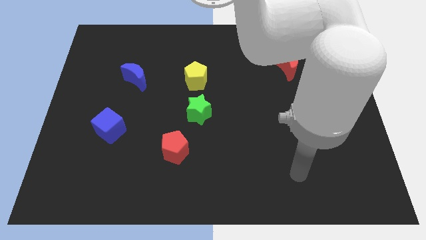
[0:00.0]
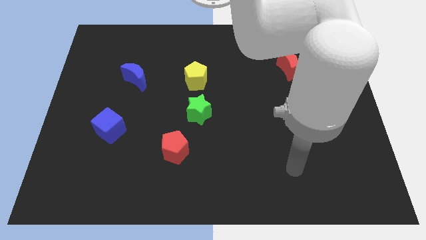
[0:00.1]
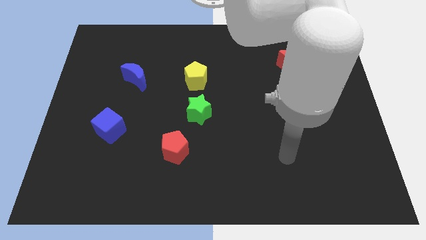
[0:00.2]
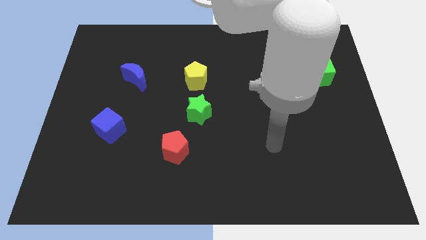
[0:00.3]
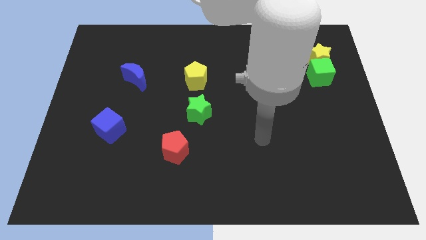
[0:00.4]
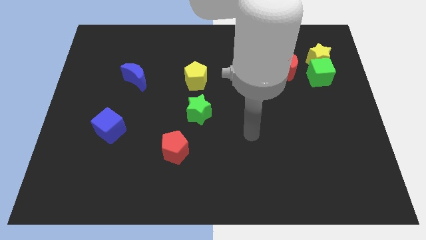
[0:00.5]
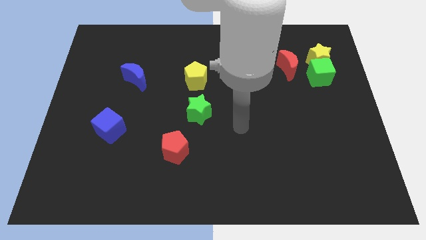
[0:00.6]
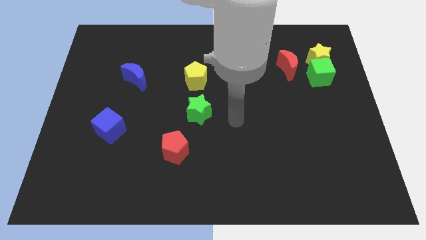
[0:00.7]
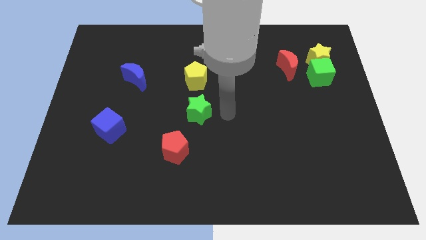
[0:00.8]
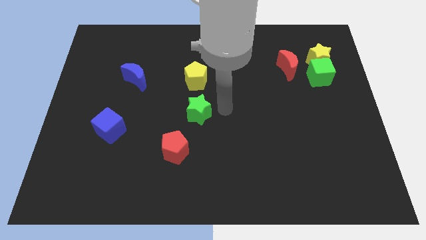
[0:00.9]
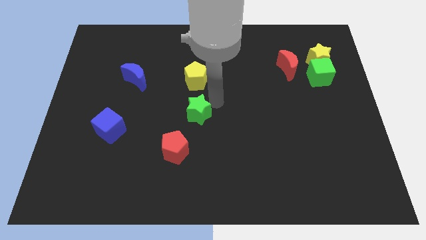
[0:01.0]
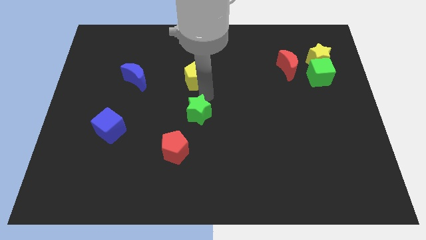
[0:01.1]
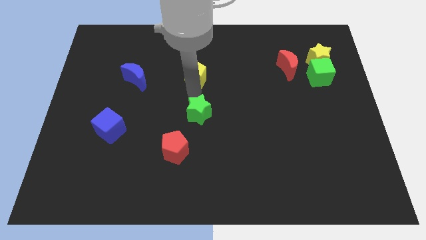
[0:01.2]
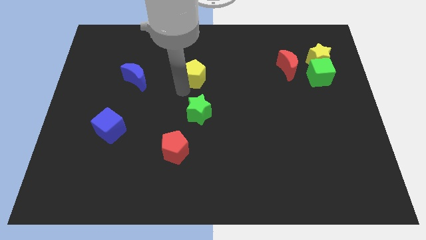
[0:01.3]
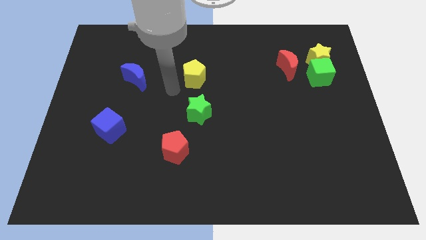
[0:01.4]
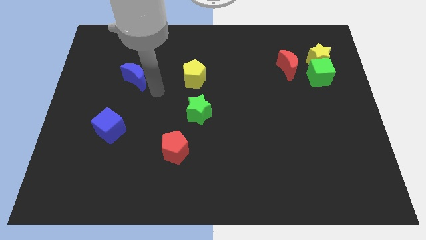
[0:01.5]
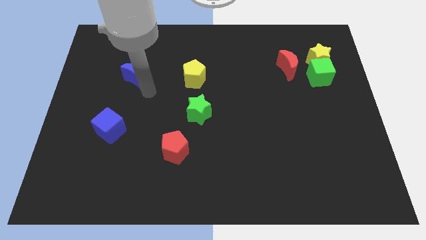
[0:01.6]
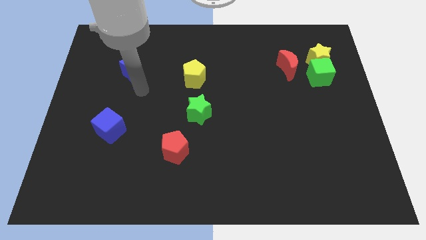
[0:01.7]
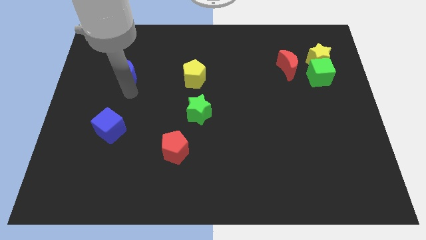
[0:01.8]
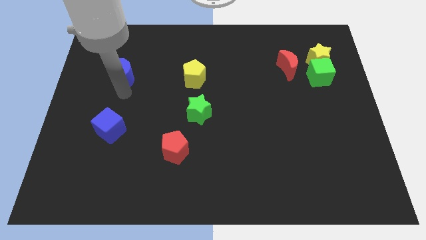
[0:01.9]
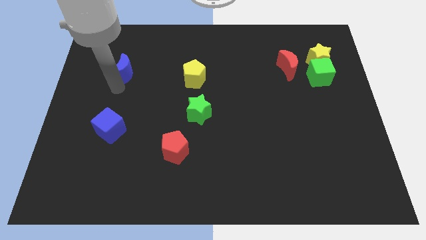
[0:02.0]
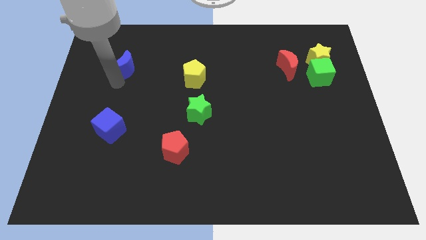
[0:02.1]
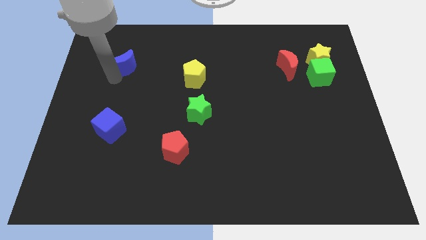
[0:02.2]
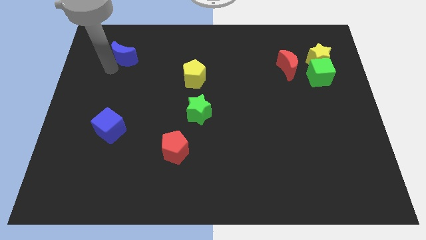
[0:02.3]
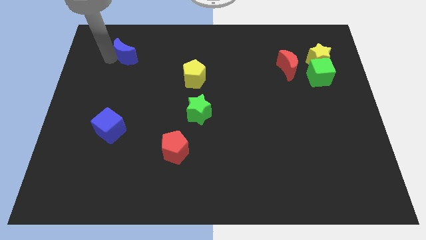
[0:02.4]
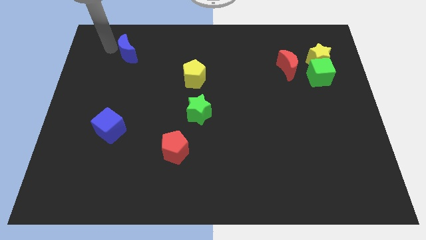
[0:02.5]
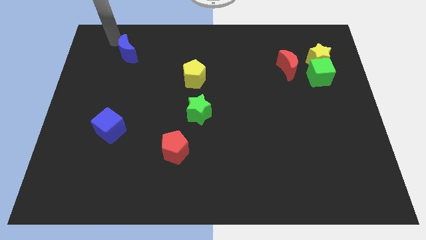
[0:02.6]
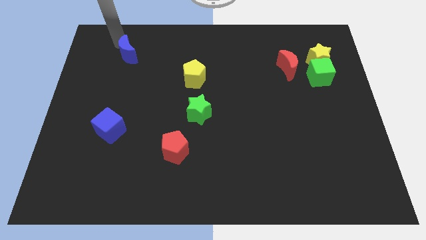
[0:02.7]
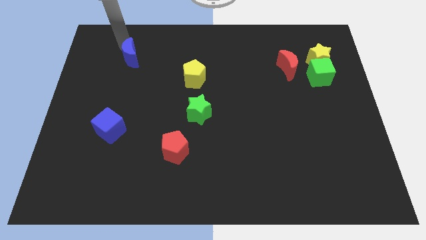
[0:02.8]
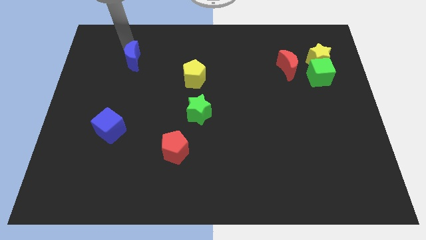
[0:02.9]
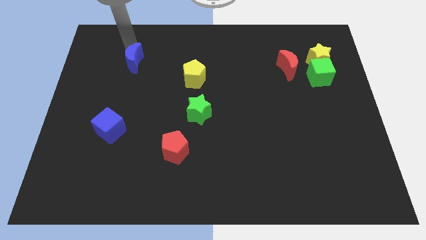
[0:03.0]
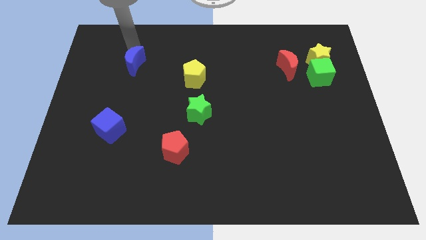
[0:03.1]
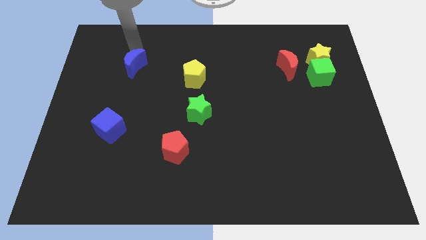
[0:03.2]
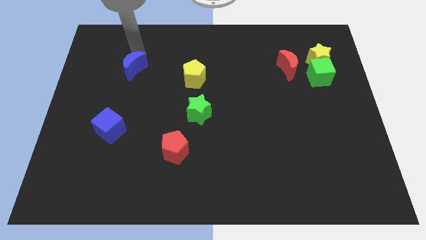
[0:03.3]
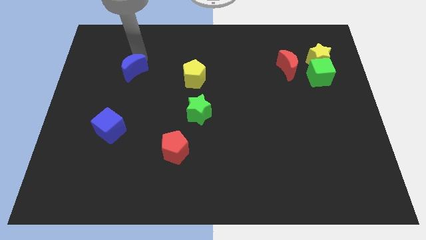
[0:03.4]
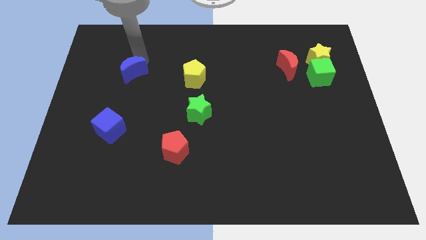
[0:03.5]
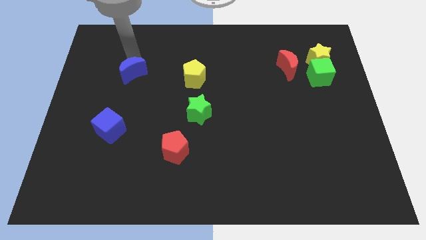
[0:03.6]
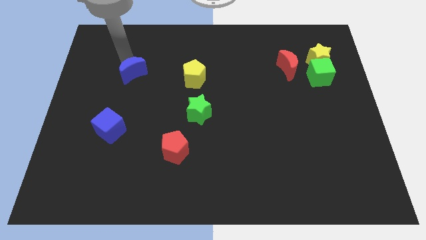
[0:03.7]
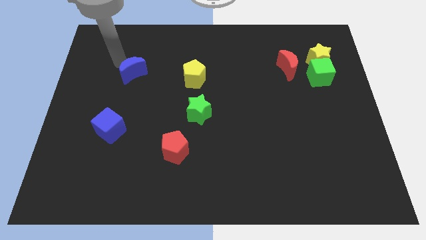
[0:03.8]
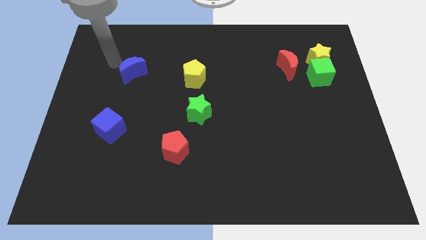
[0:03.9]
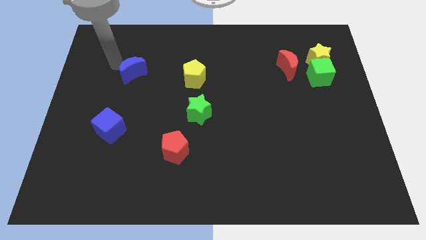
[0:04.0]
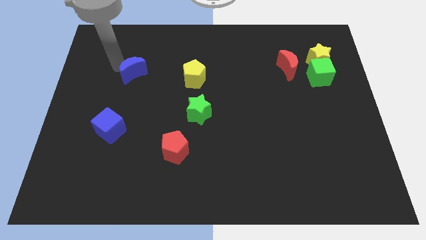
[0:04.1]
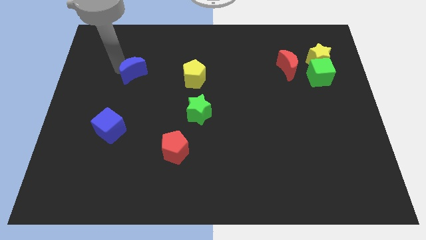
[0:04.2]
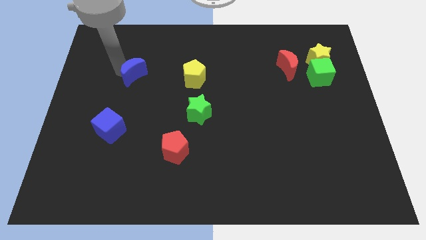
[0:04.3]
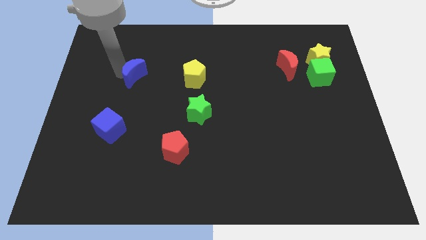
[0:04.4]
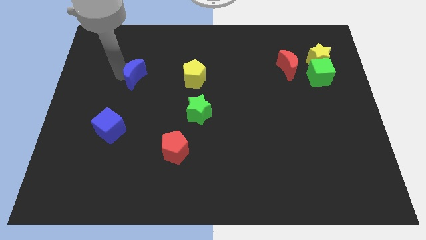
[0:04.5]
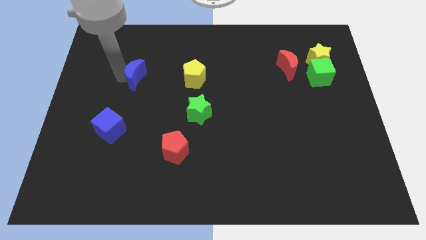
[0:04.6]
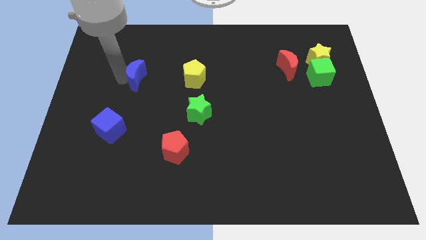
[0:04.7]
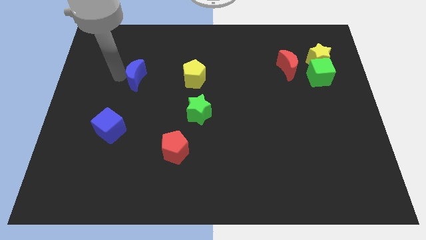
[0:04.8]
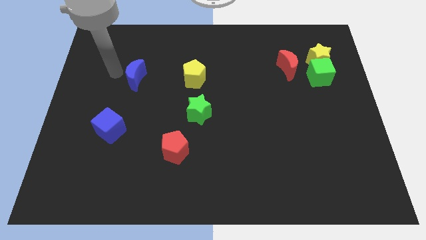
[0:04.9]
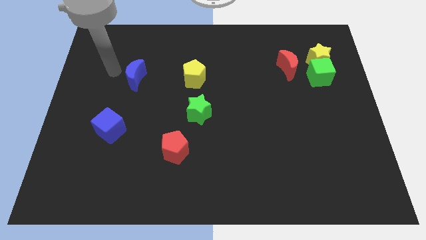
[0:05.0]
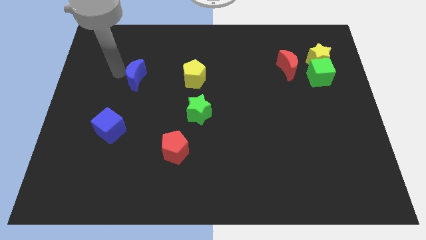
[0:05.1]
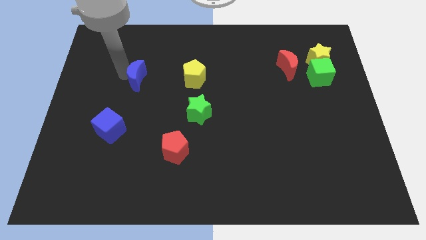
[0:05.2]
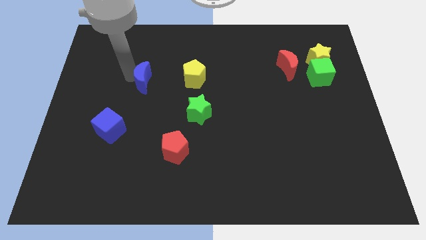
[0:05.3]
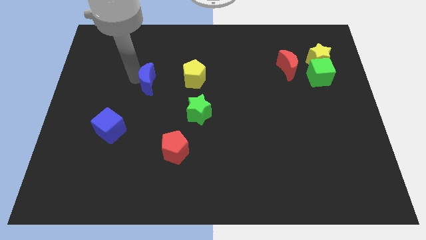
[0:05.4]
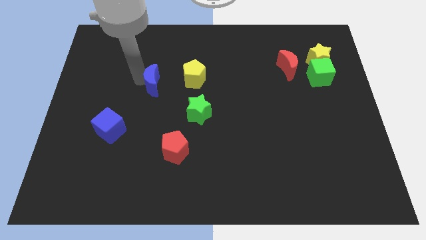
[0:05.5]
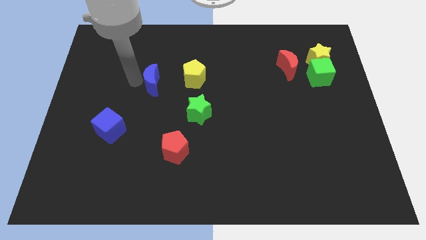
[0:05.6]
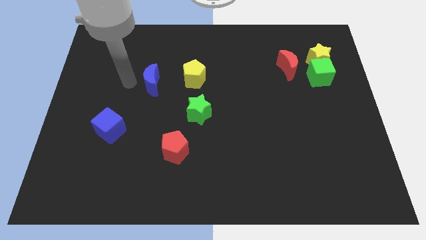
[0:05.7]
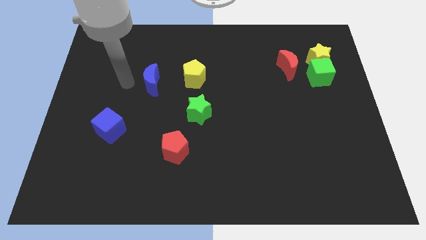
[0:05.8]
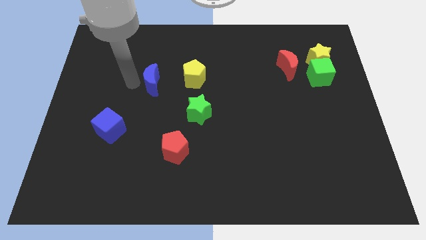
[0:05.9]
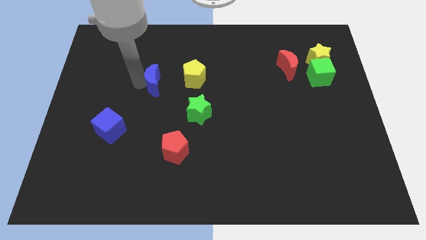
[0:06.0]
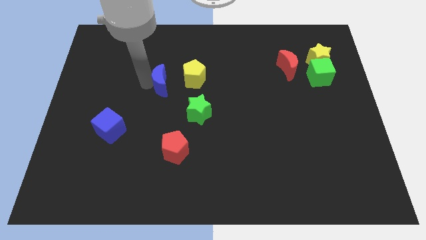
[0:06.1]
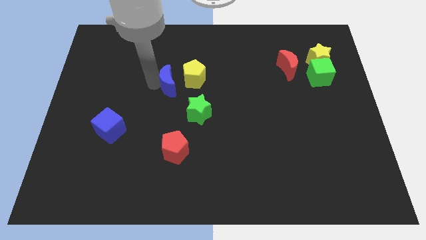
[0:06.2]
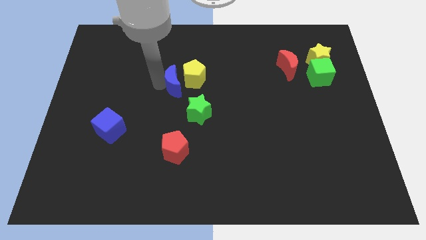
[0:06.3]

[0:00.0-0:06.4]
put the blue moon to the yellow pentagon

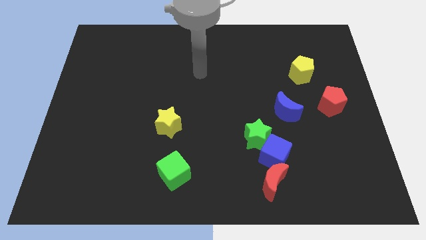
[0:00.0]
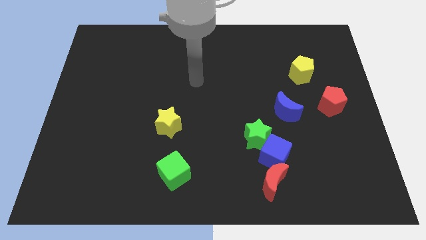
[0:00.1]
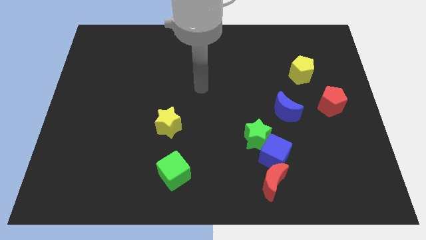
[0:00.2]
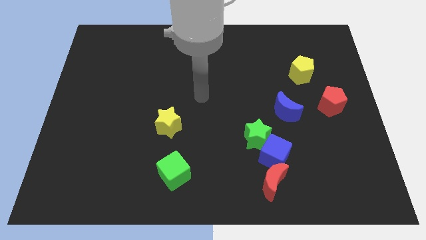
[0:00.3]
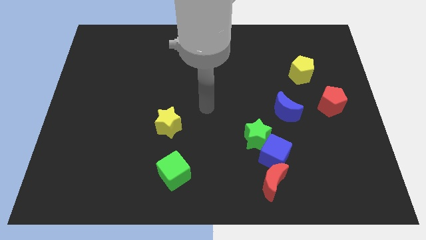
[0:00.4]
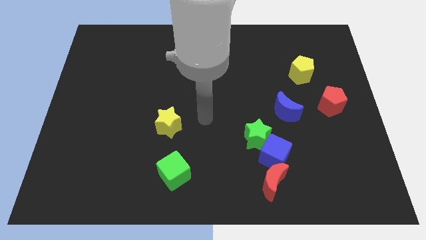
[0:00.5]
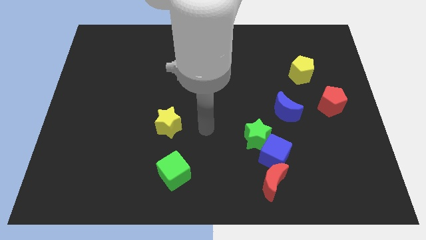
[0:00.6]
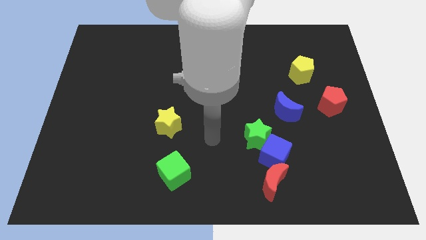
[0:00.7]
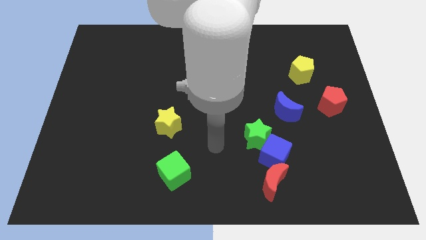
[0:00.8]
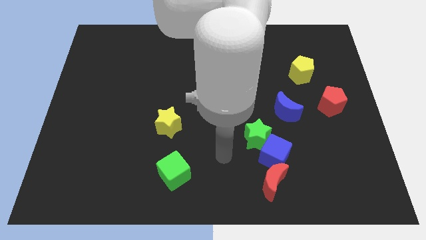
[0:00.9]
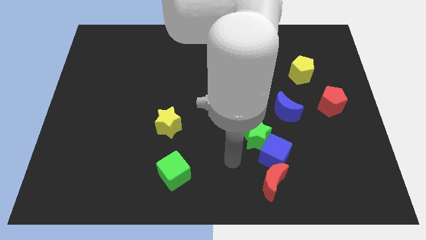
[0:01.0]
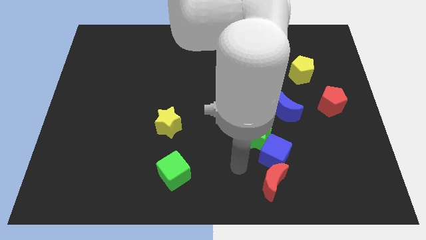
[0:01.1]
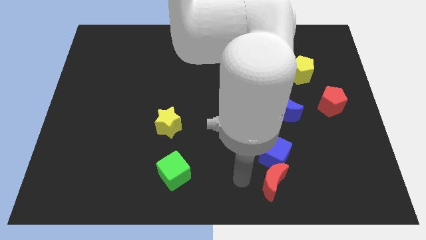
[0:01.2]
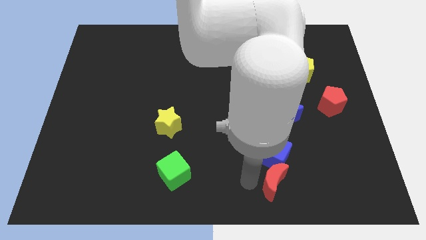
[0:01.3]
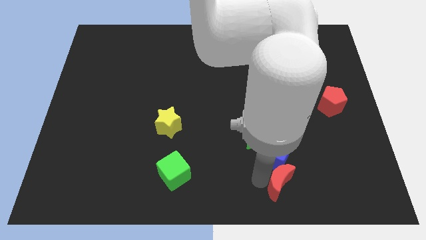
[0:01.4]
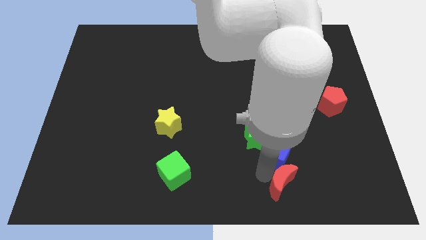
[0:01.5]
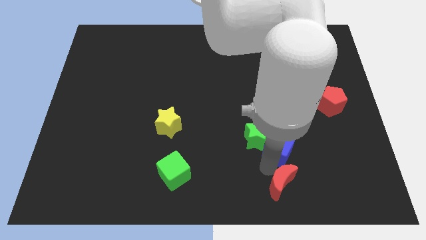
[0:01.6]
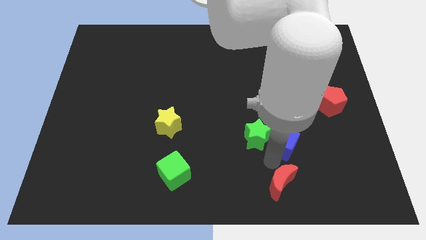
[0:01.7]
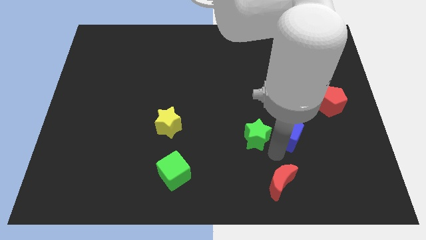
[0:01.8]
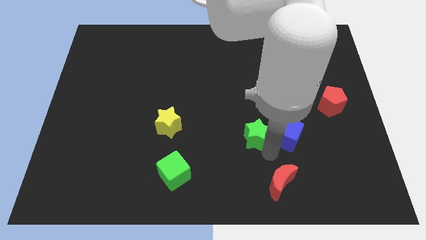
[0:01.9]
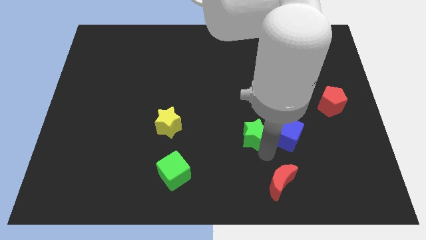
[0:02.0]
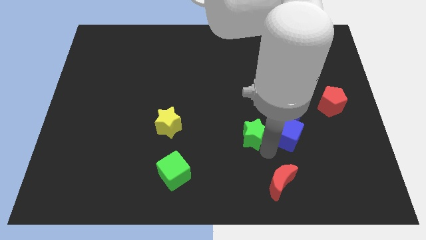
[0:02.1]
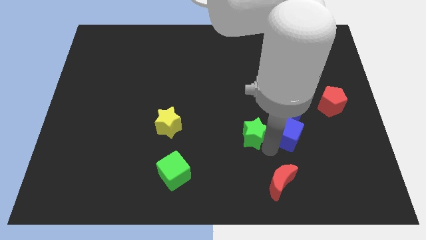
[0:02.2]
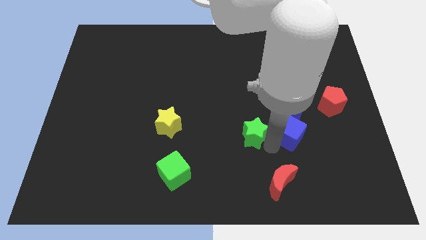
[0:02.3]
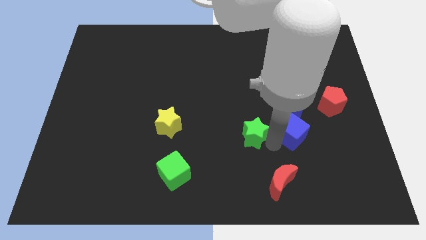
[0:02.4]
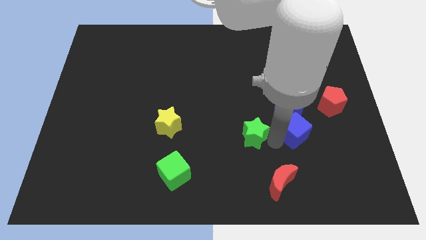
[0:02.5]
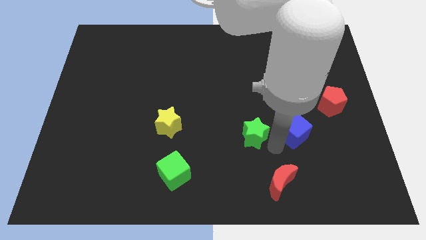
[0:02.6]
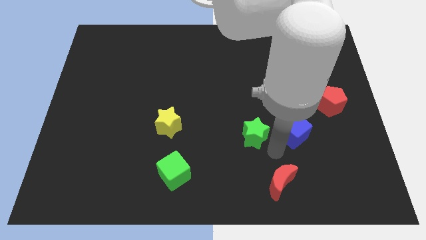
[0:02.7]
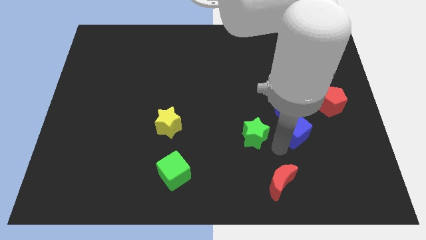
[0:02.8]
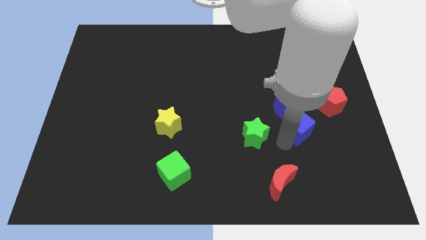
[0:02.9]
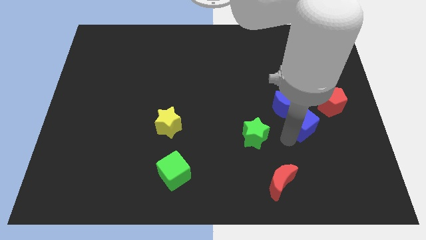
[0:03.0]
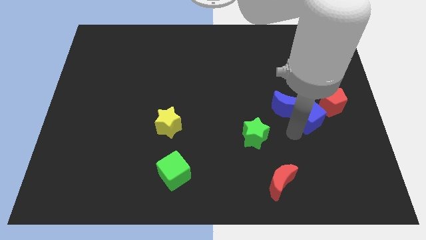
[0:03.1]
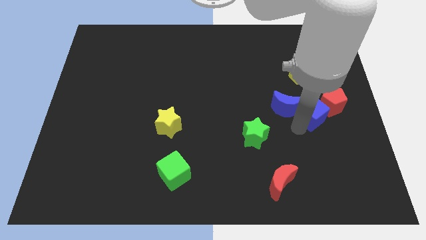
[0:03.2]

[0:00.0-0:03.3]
slide the blue cube to the red pentagon
